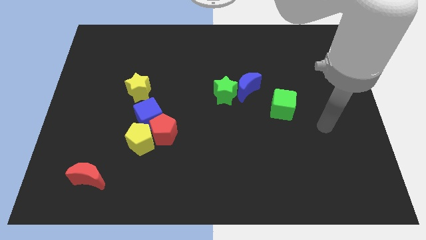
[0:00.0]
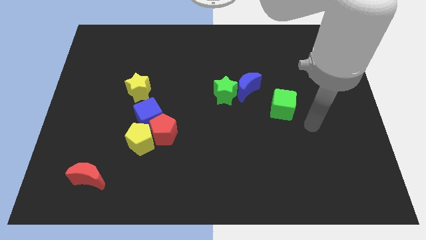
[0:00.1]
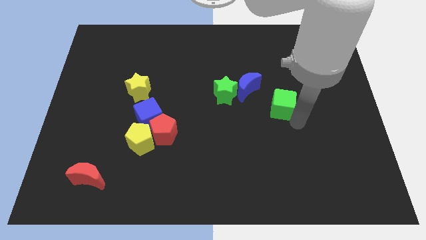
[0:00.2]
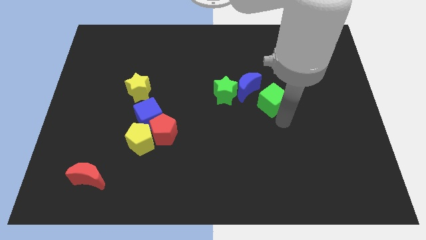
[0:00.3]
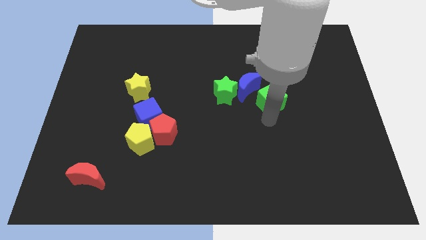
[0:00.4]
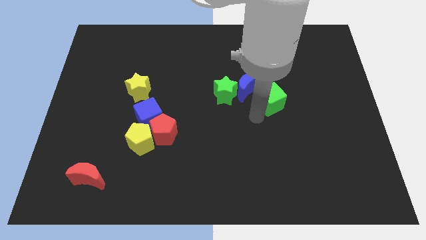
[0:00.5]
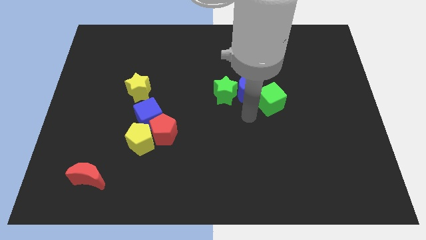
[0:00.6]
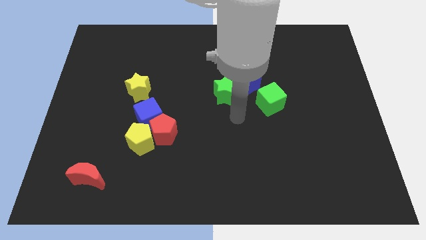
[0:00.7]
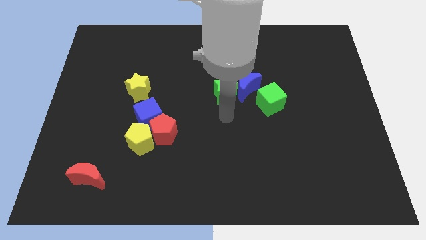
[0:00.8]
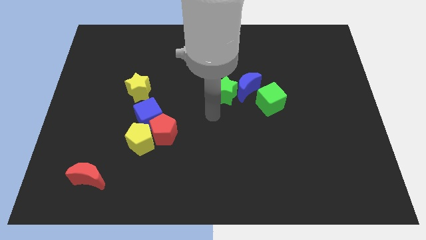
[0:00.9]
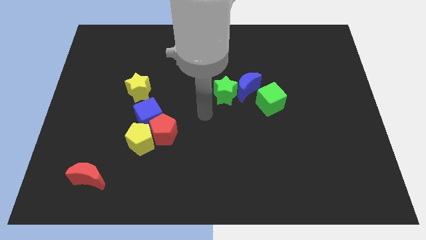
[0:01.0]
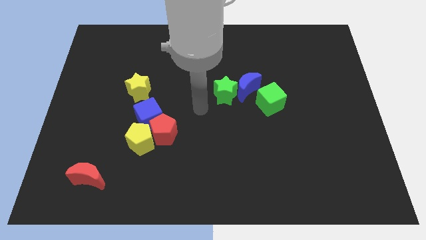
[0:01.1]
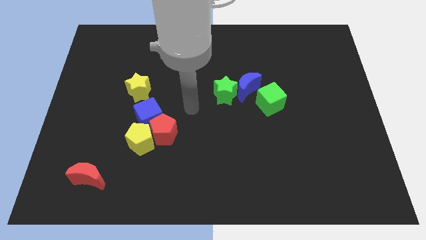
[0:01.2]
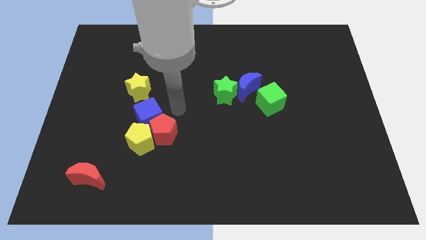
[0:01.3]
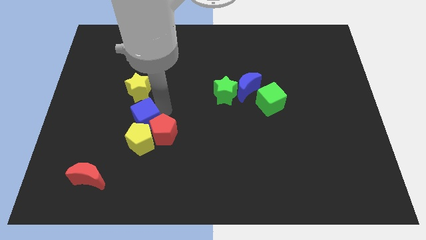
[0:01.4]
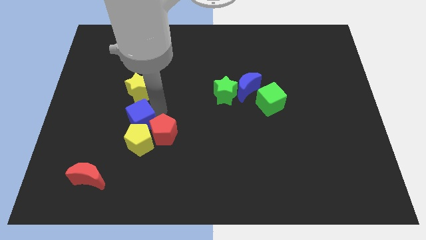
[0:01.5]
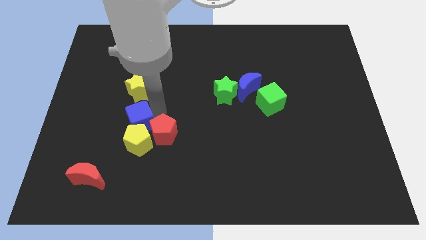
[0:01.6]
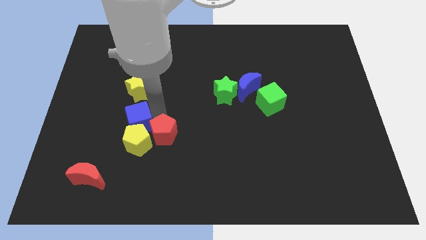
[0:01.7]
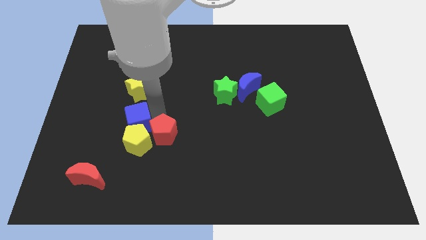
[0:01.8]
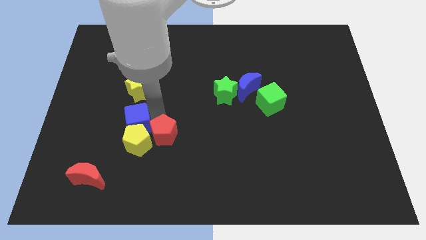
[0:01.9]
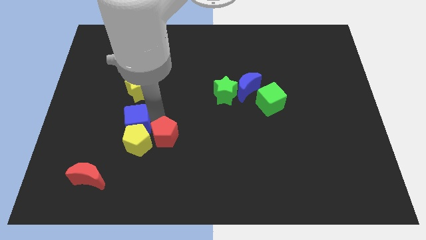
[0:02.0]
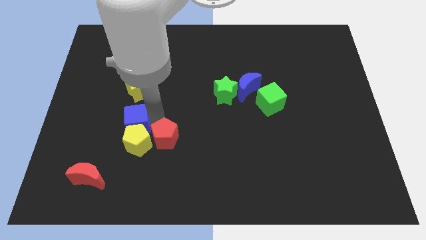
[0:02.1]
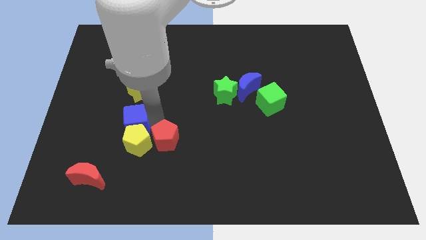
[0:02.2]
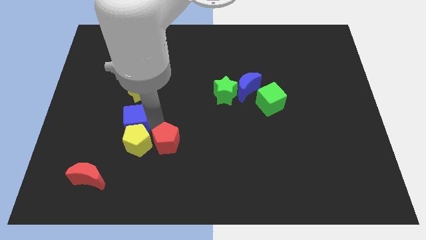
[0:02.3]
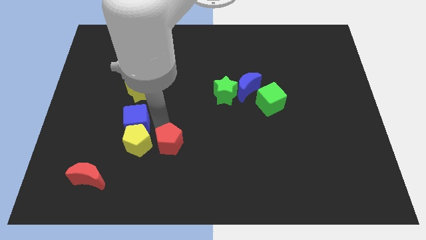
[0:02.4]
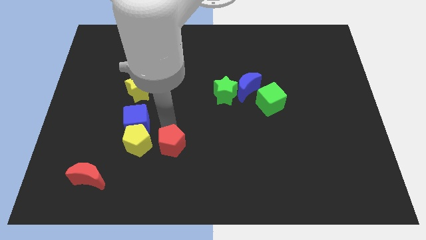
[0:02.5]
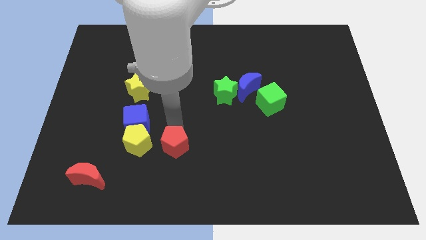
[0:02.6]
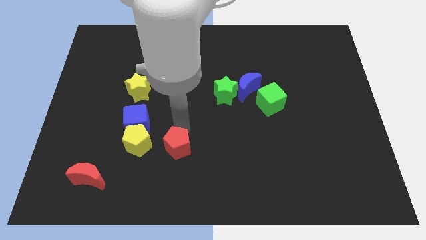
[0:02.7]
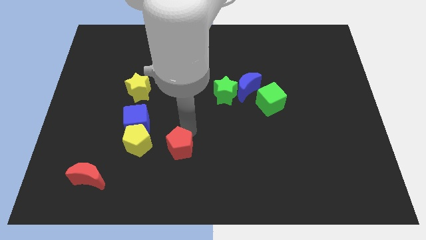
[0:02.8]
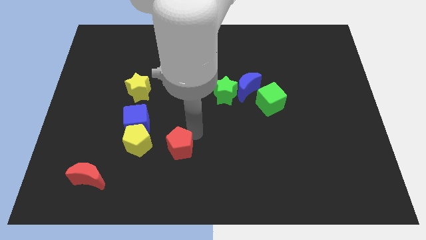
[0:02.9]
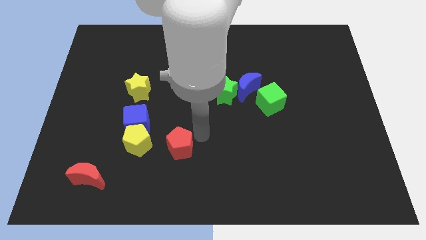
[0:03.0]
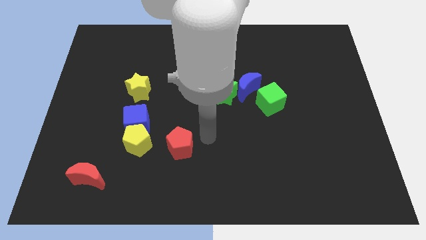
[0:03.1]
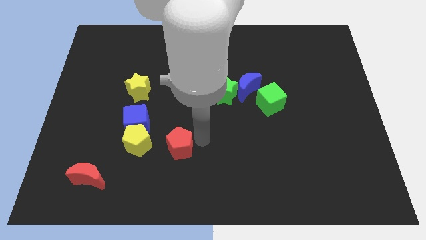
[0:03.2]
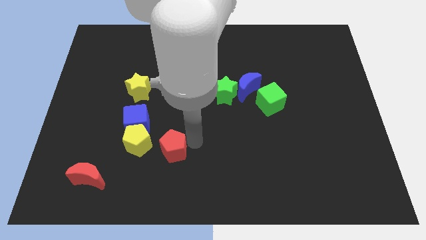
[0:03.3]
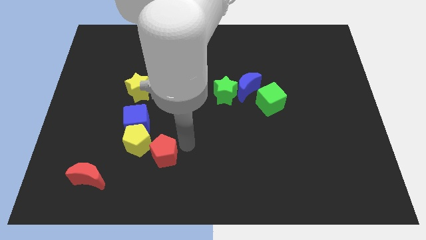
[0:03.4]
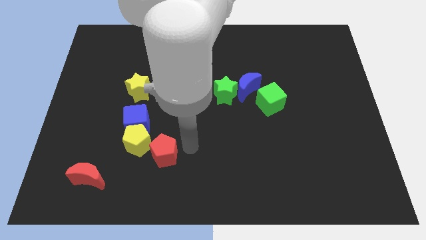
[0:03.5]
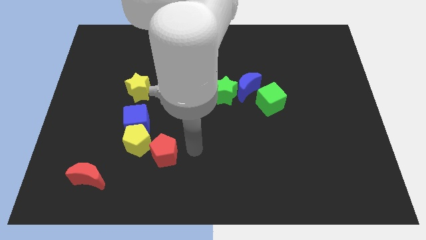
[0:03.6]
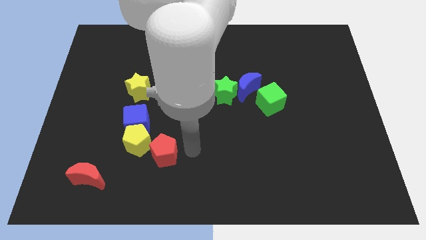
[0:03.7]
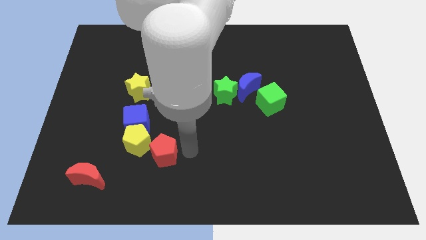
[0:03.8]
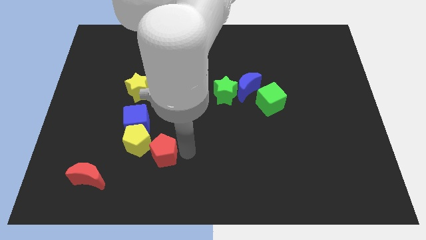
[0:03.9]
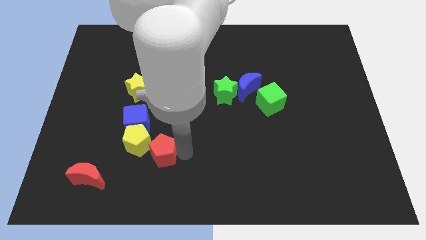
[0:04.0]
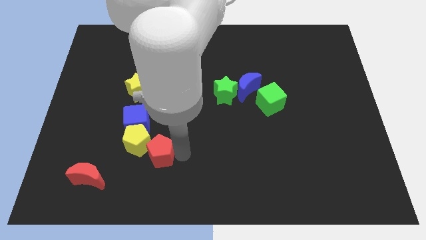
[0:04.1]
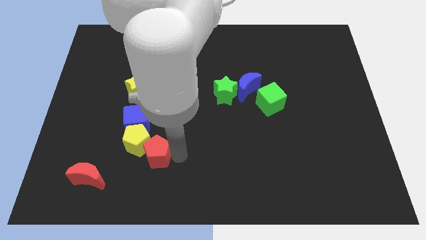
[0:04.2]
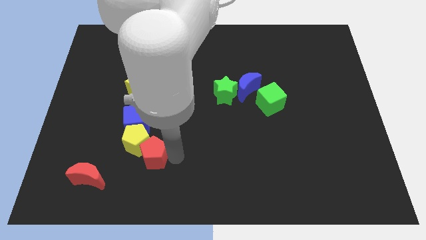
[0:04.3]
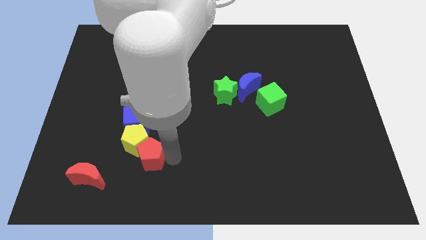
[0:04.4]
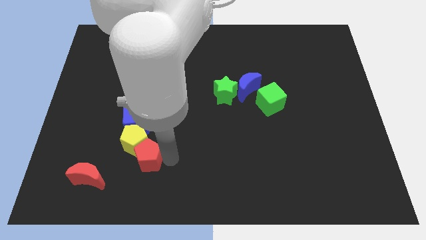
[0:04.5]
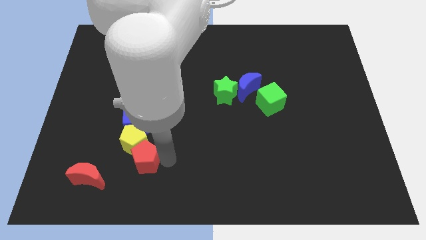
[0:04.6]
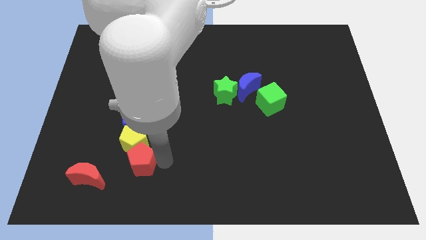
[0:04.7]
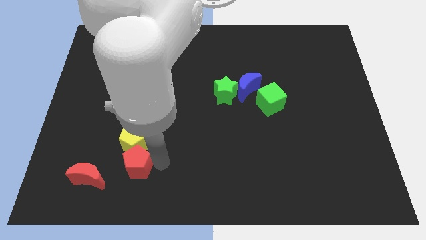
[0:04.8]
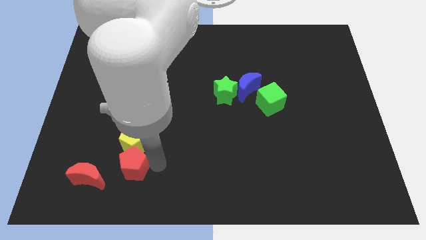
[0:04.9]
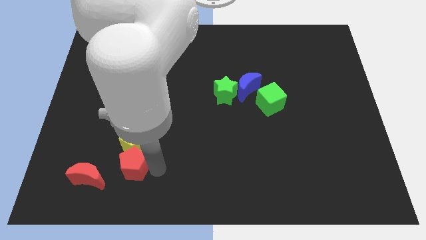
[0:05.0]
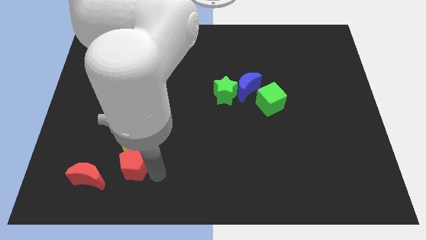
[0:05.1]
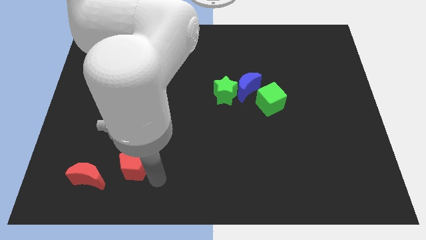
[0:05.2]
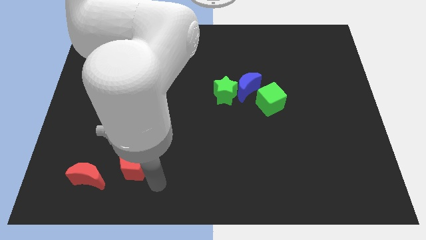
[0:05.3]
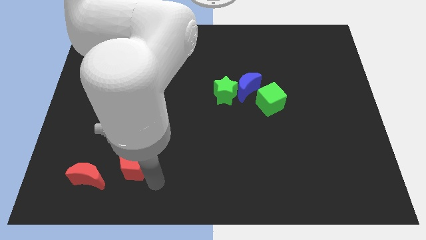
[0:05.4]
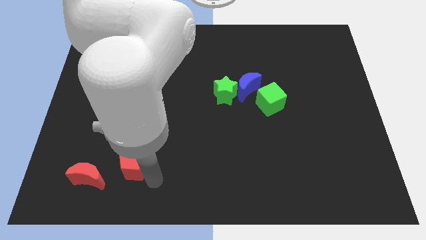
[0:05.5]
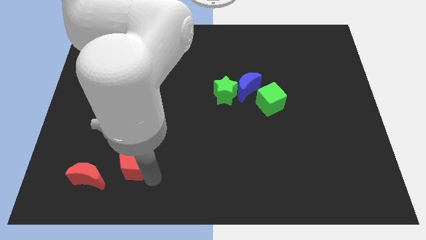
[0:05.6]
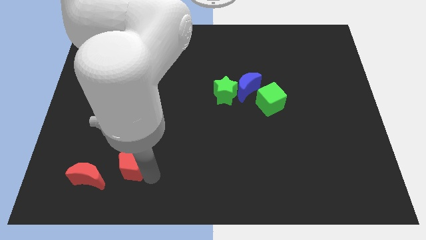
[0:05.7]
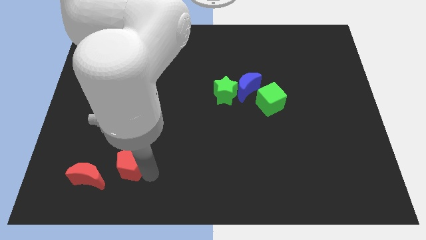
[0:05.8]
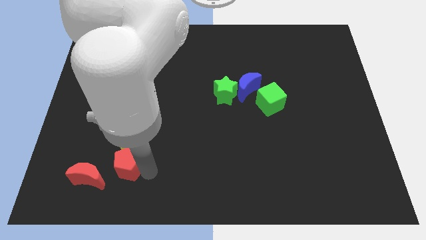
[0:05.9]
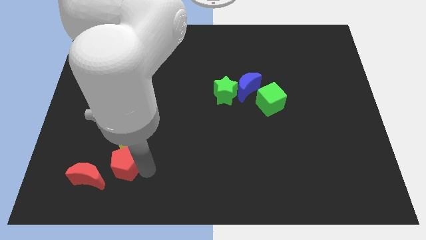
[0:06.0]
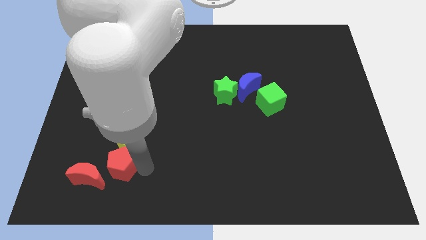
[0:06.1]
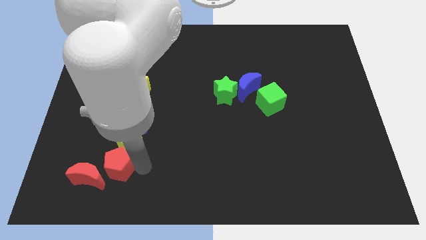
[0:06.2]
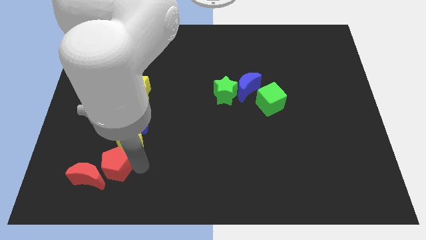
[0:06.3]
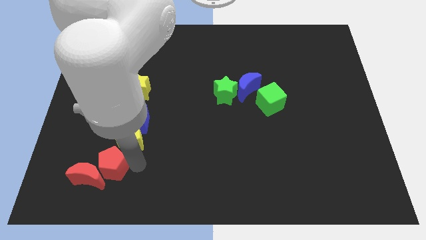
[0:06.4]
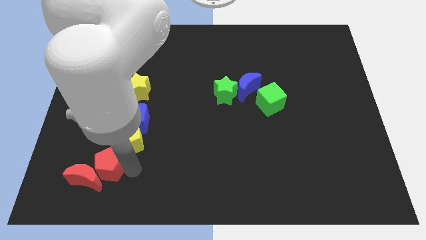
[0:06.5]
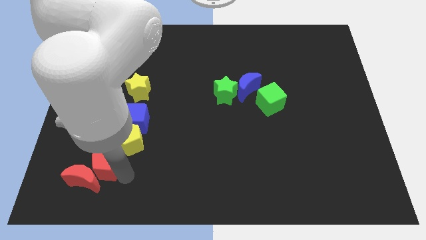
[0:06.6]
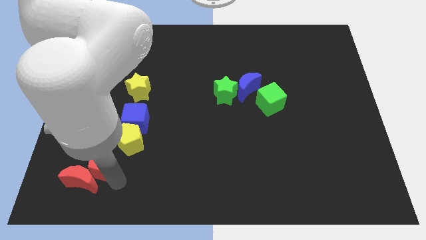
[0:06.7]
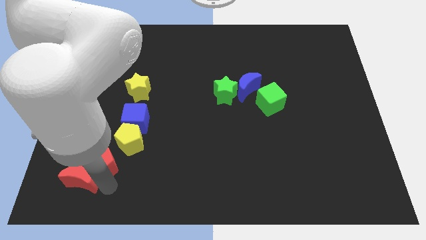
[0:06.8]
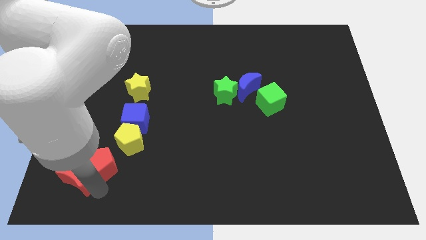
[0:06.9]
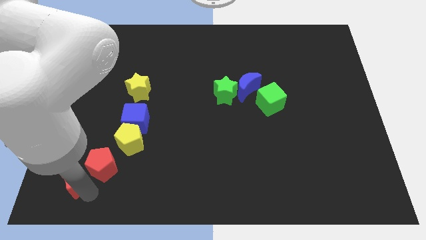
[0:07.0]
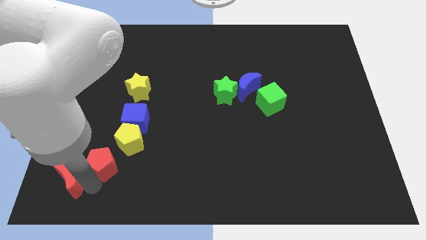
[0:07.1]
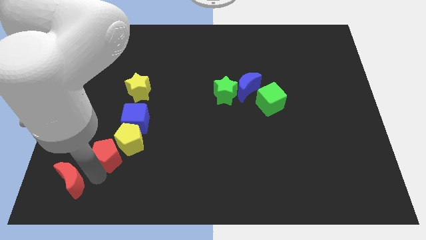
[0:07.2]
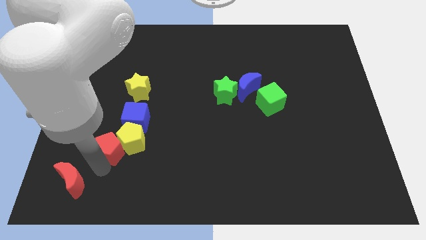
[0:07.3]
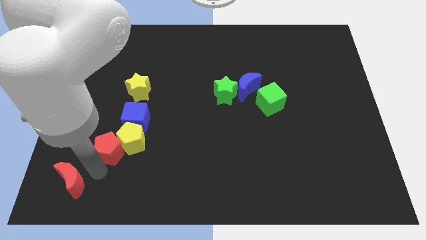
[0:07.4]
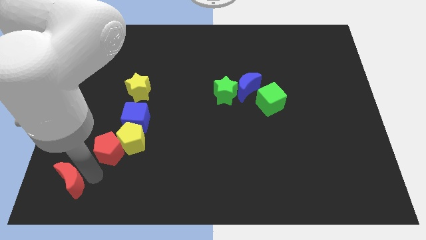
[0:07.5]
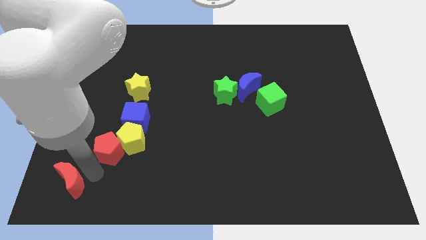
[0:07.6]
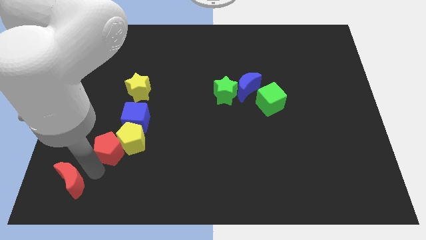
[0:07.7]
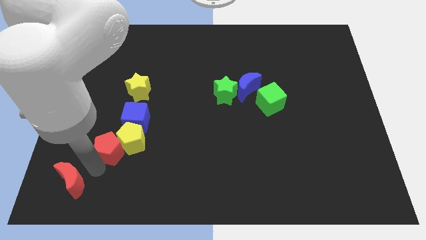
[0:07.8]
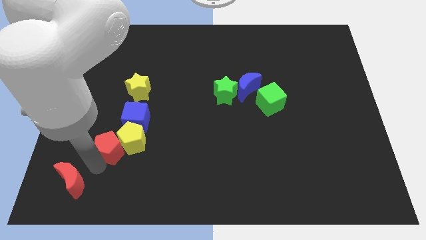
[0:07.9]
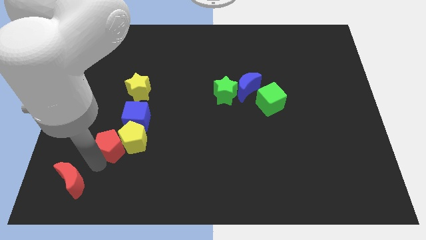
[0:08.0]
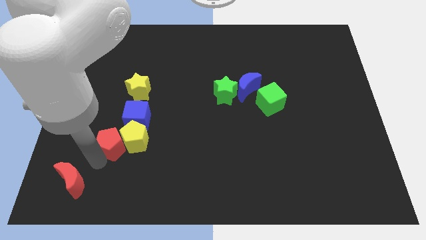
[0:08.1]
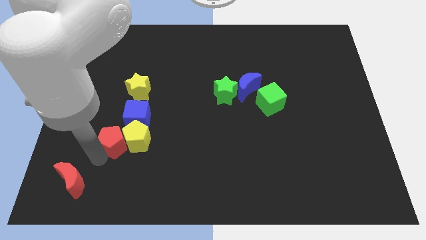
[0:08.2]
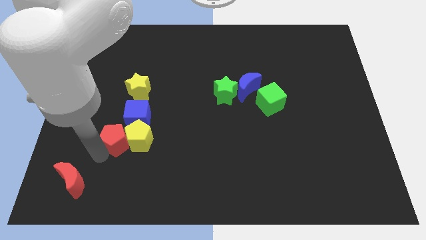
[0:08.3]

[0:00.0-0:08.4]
slide the red pentagon below the yellow star
